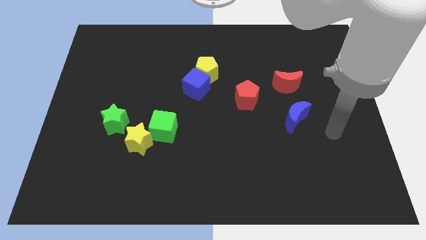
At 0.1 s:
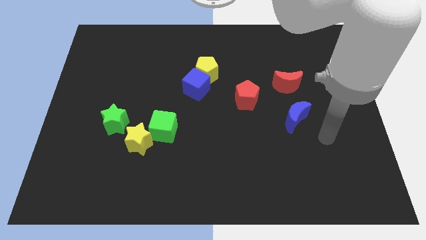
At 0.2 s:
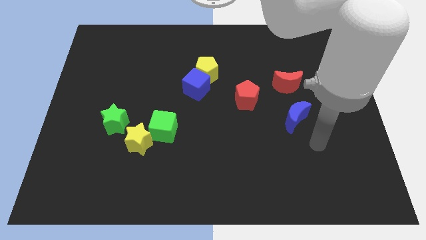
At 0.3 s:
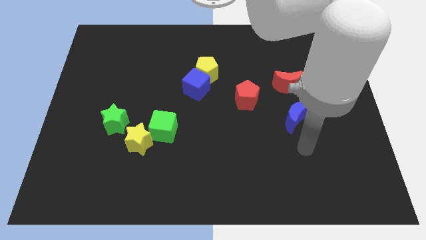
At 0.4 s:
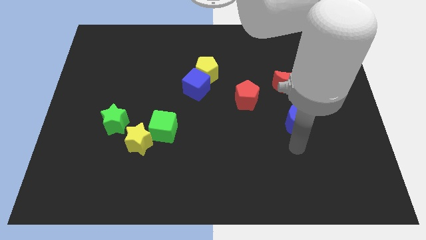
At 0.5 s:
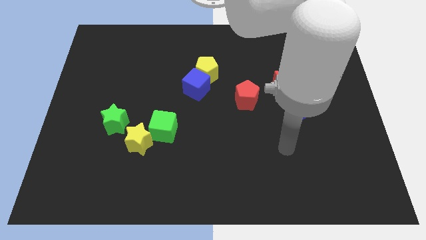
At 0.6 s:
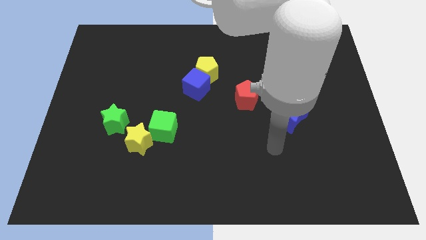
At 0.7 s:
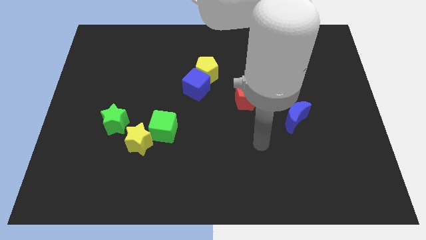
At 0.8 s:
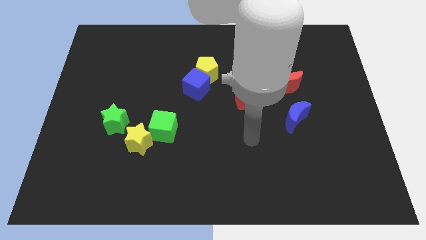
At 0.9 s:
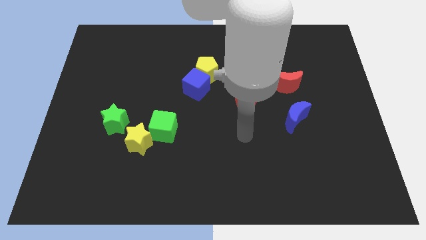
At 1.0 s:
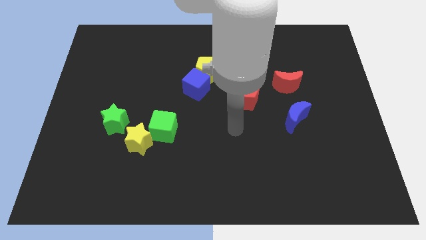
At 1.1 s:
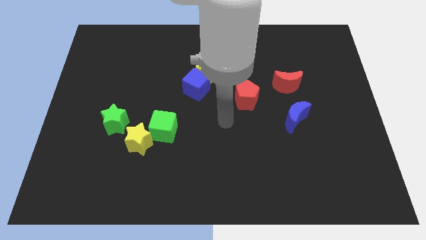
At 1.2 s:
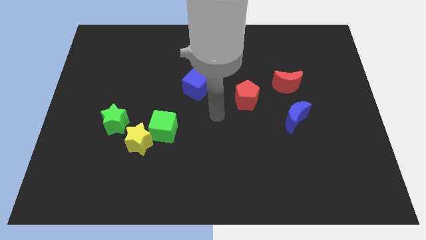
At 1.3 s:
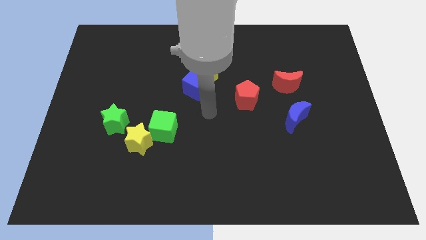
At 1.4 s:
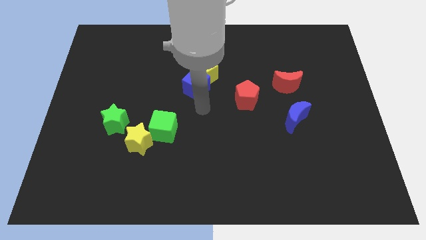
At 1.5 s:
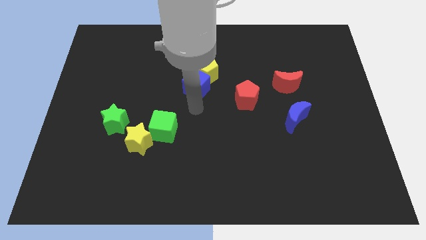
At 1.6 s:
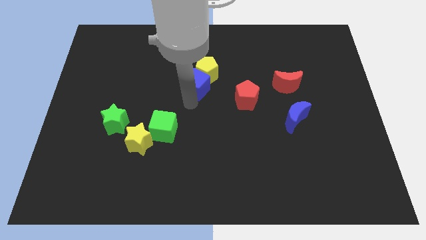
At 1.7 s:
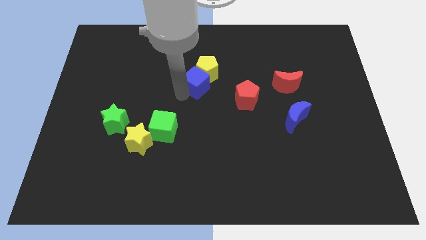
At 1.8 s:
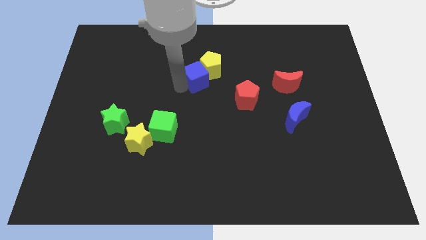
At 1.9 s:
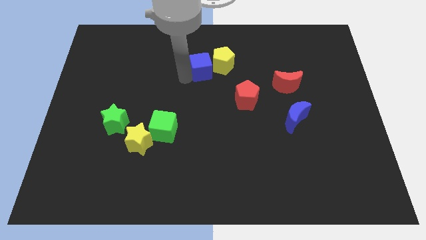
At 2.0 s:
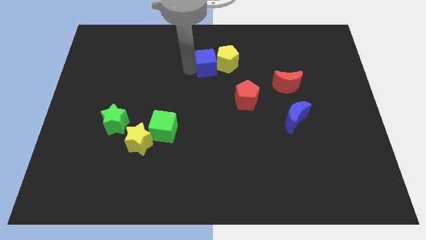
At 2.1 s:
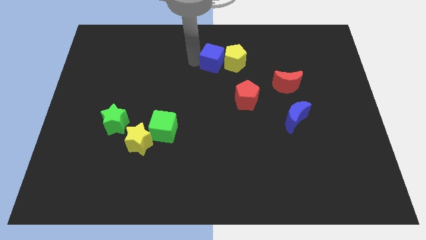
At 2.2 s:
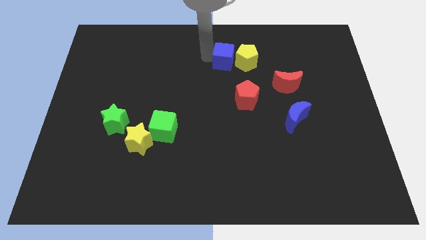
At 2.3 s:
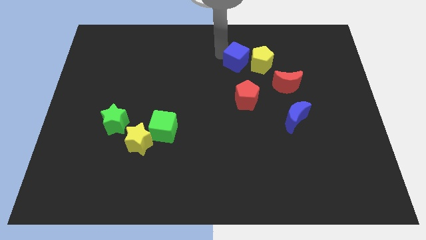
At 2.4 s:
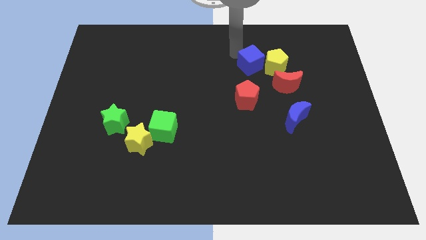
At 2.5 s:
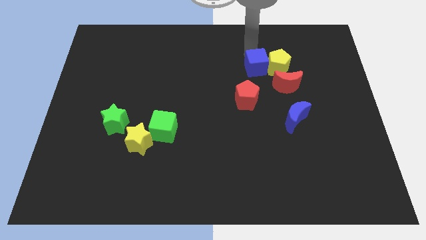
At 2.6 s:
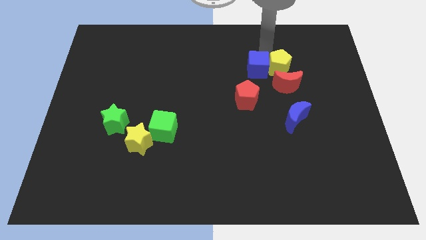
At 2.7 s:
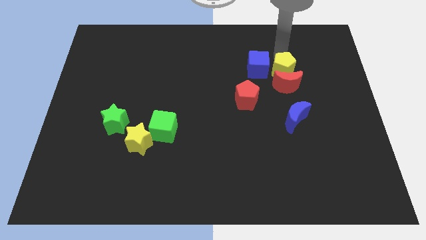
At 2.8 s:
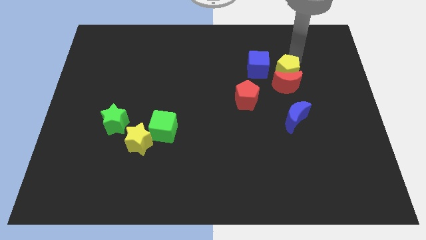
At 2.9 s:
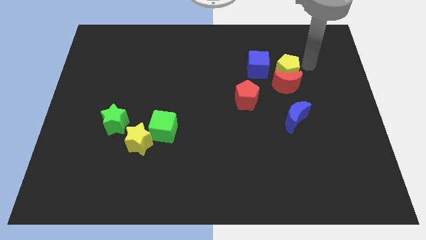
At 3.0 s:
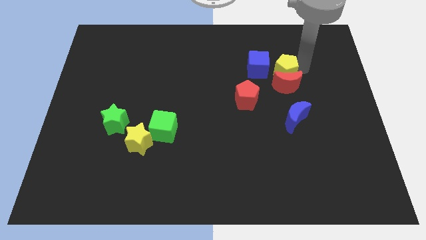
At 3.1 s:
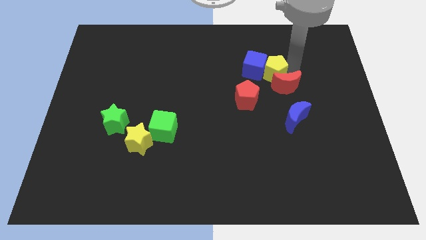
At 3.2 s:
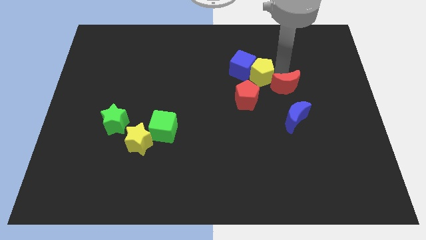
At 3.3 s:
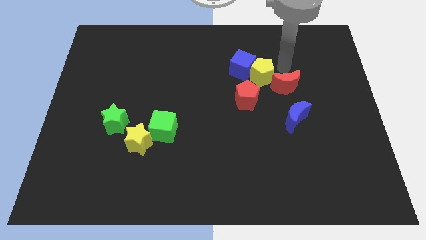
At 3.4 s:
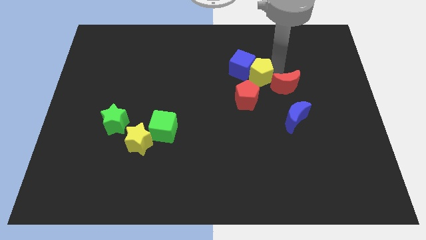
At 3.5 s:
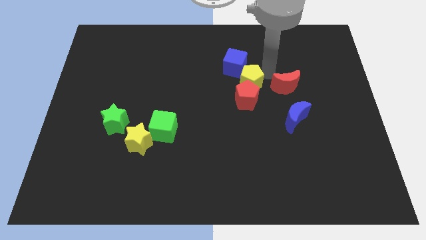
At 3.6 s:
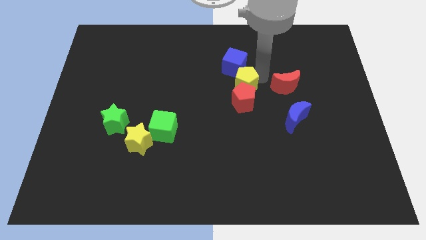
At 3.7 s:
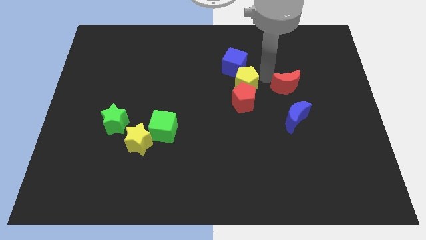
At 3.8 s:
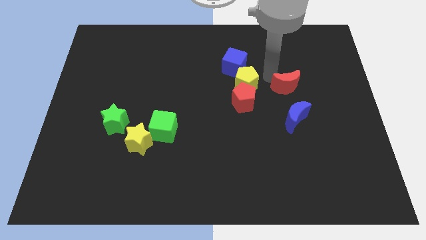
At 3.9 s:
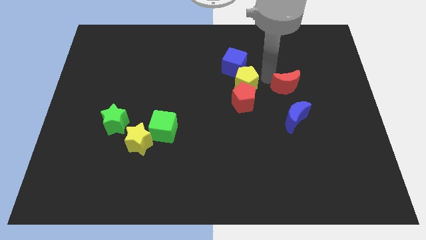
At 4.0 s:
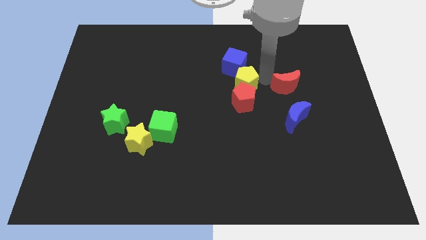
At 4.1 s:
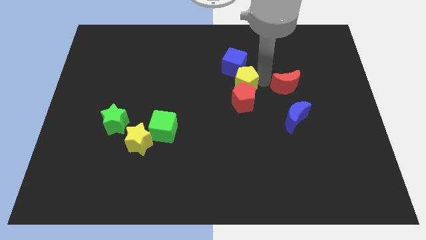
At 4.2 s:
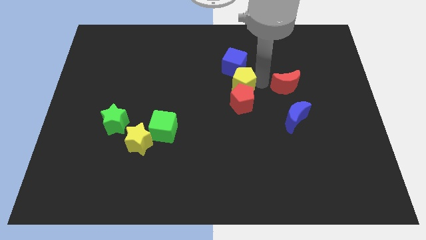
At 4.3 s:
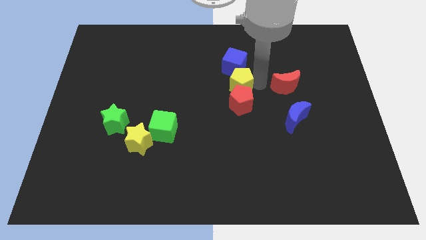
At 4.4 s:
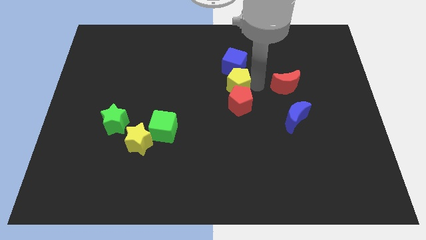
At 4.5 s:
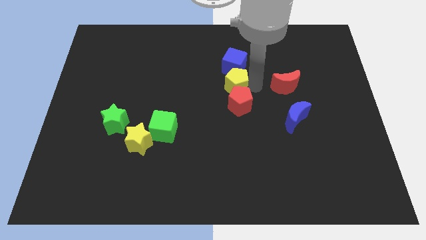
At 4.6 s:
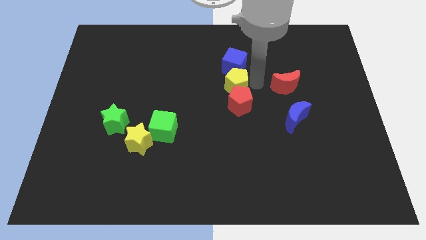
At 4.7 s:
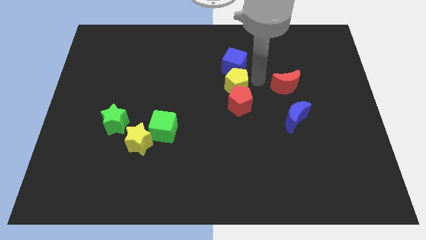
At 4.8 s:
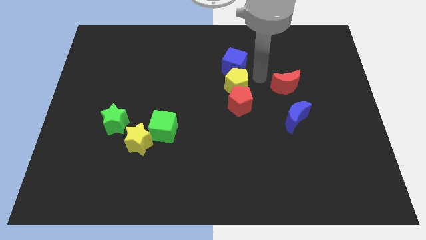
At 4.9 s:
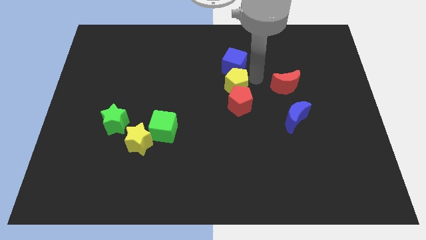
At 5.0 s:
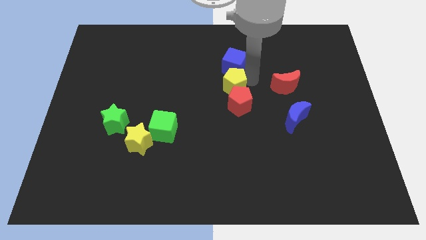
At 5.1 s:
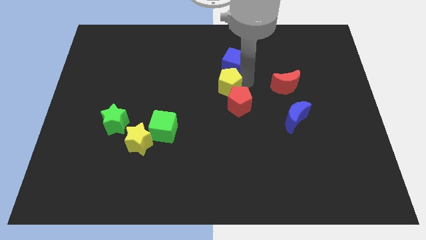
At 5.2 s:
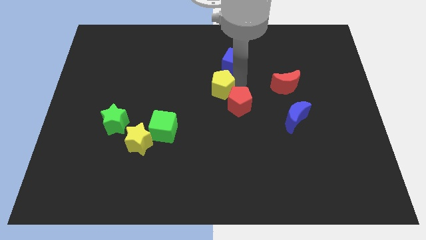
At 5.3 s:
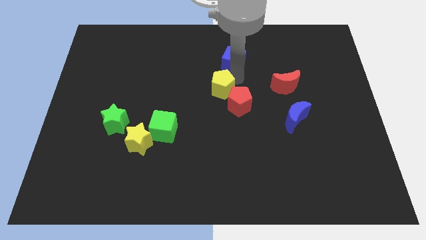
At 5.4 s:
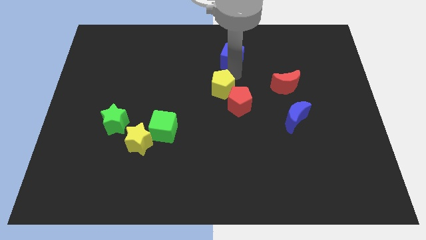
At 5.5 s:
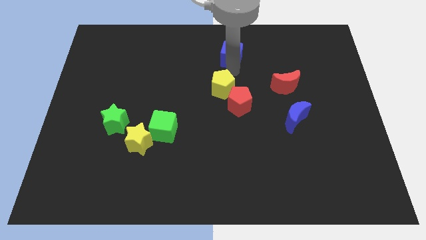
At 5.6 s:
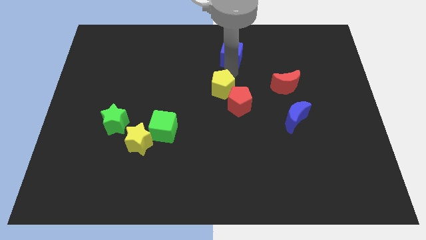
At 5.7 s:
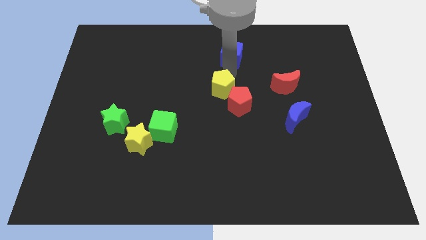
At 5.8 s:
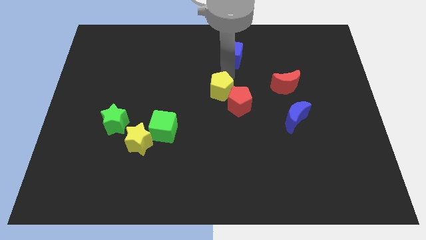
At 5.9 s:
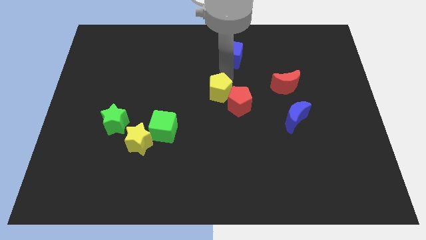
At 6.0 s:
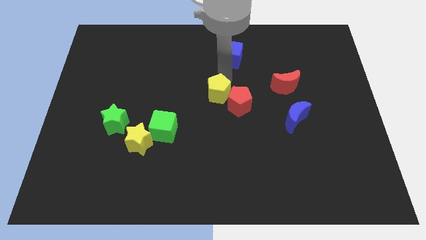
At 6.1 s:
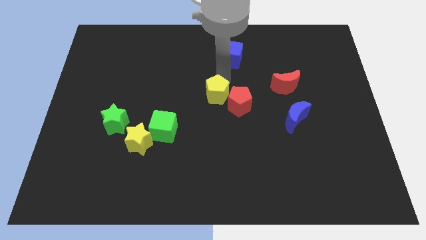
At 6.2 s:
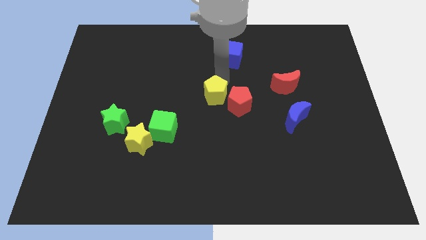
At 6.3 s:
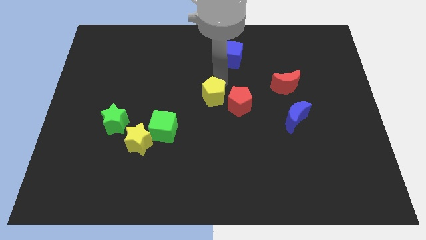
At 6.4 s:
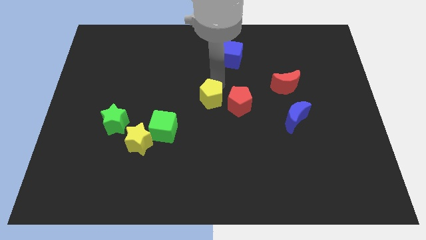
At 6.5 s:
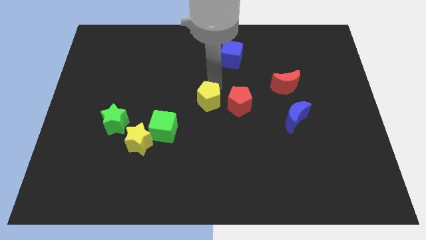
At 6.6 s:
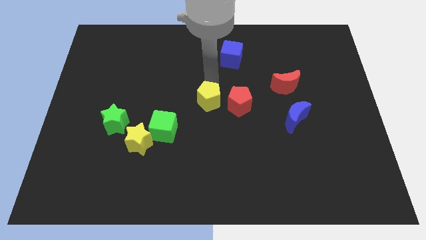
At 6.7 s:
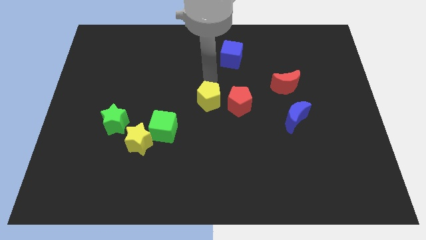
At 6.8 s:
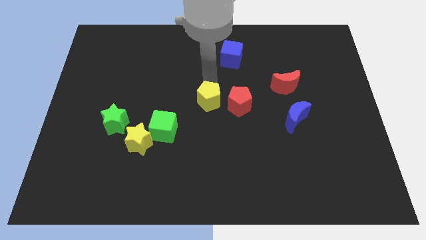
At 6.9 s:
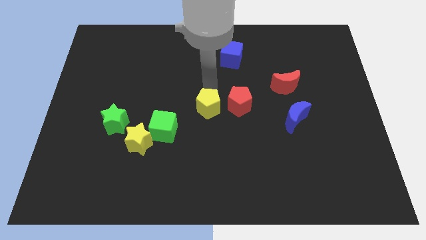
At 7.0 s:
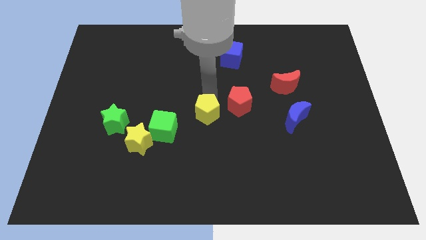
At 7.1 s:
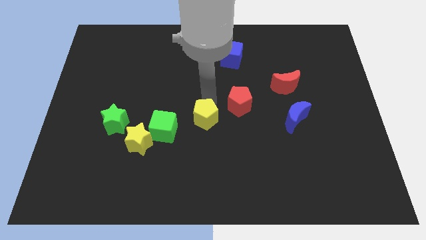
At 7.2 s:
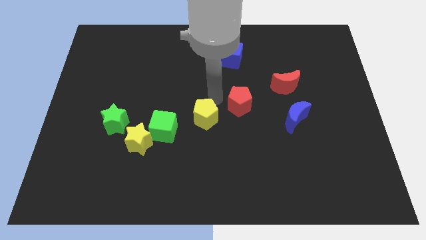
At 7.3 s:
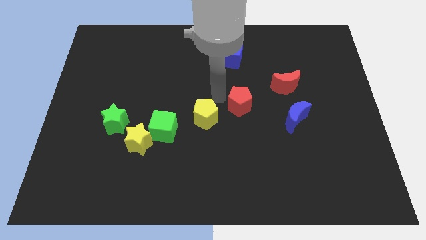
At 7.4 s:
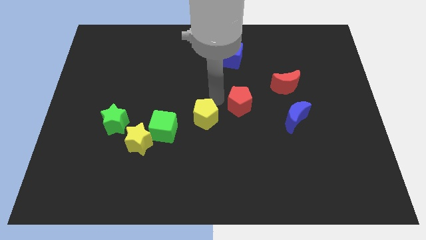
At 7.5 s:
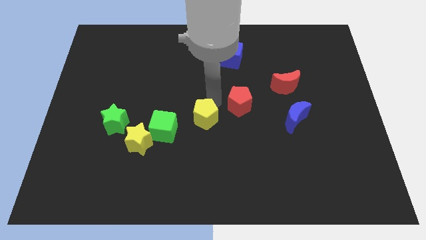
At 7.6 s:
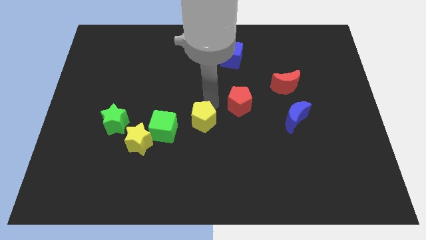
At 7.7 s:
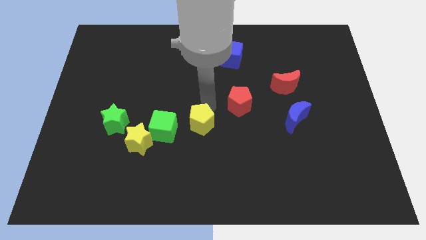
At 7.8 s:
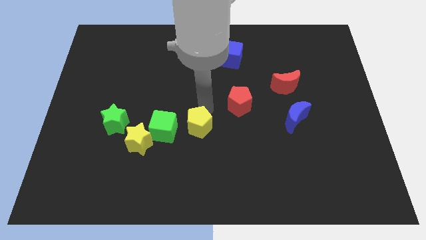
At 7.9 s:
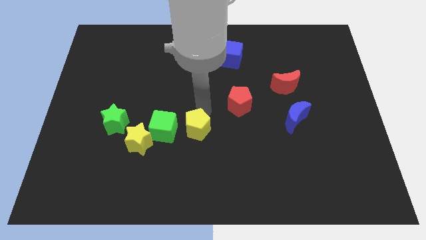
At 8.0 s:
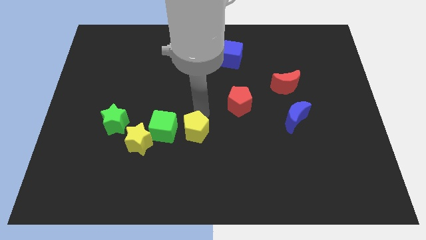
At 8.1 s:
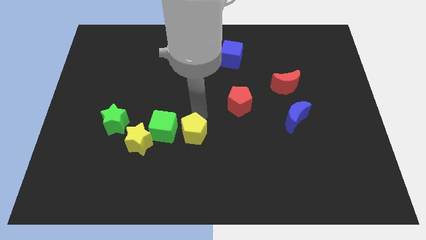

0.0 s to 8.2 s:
put the yellow pentagon diagonally down and to the right of the green cube

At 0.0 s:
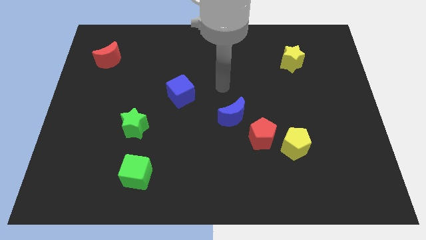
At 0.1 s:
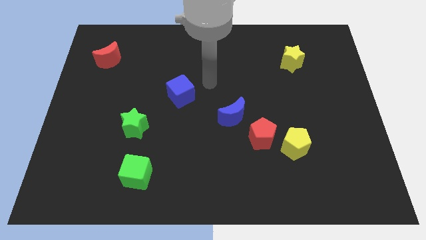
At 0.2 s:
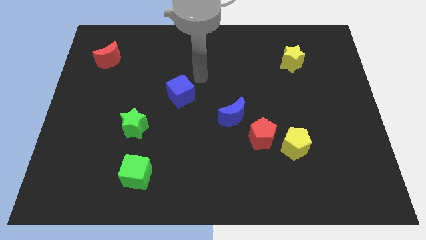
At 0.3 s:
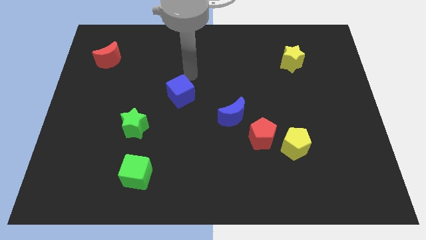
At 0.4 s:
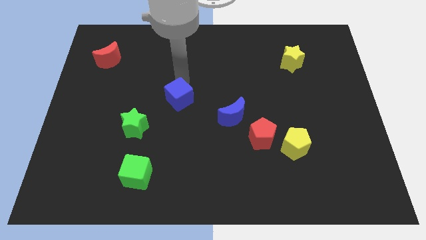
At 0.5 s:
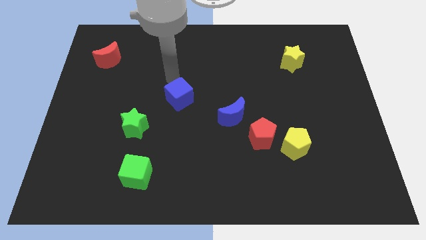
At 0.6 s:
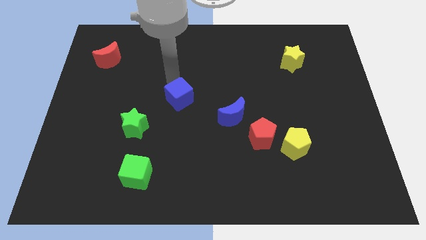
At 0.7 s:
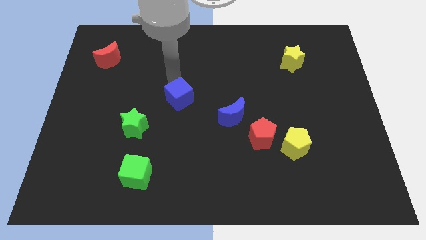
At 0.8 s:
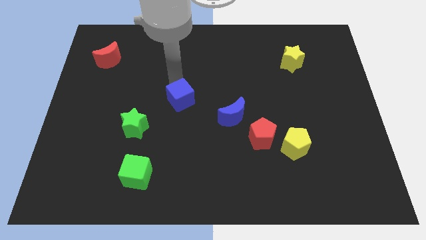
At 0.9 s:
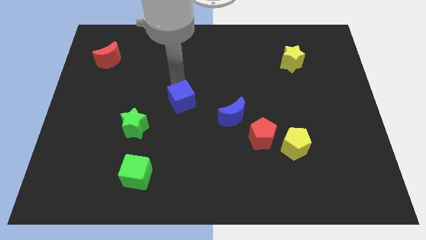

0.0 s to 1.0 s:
put the blue cube to the left of the blue moon
